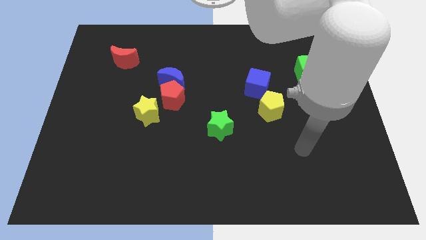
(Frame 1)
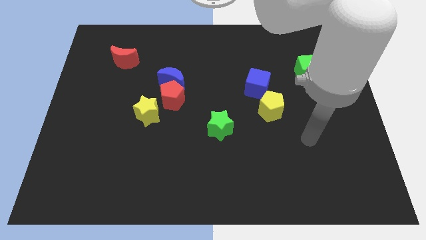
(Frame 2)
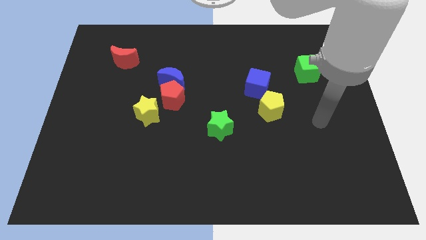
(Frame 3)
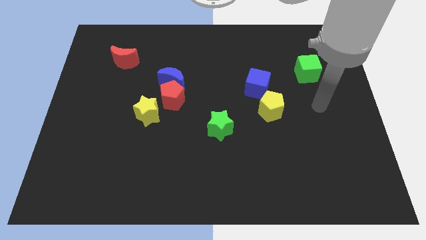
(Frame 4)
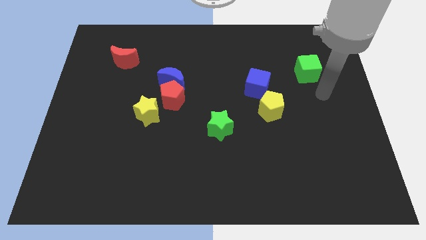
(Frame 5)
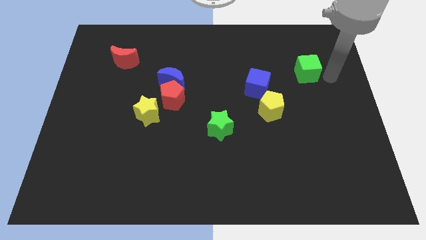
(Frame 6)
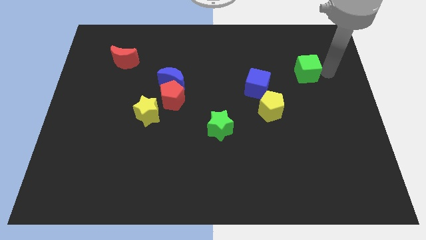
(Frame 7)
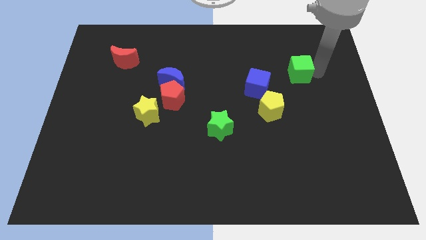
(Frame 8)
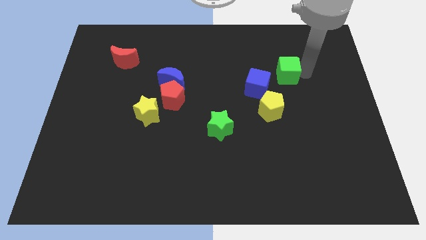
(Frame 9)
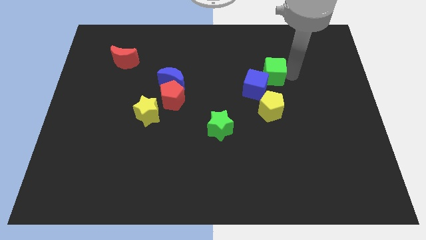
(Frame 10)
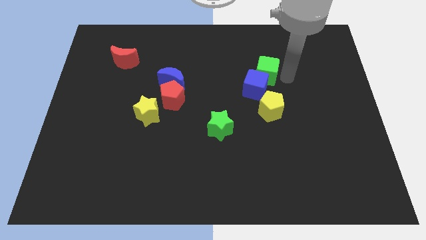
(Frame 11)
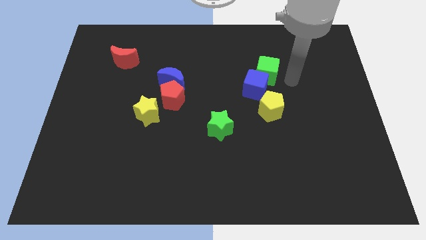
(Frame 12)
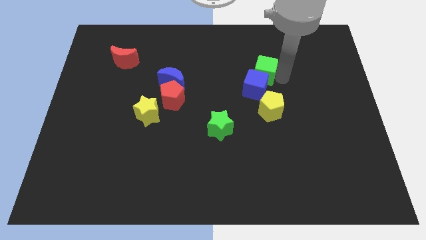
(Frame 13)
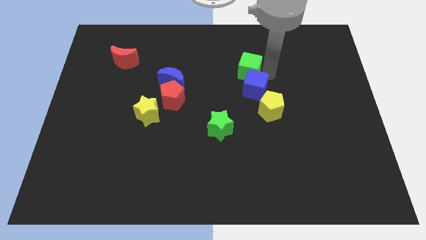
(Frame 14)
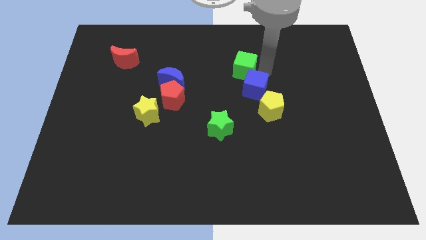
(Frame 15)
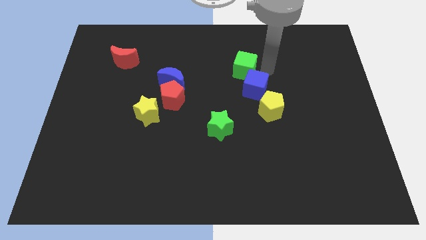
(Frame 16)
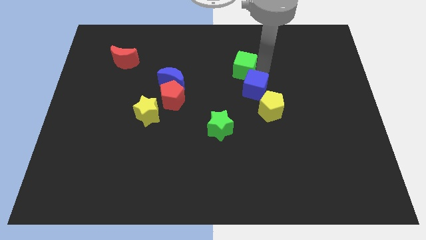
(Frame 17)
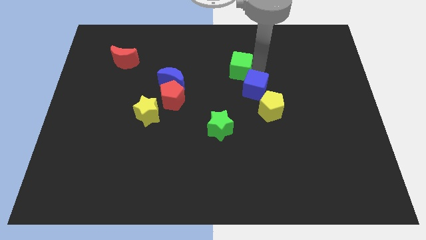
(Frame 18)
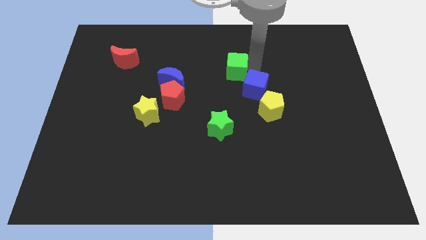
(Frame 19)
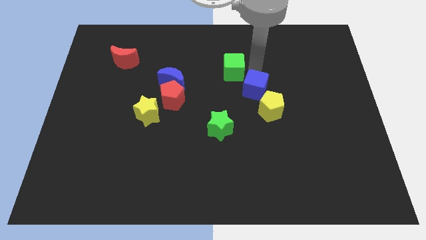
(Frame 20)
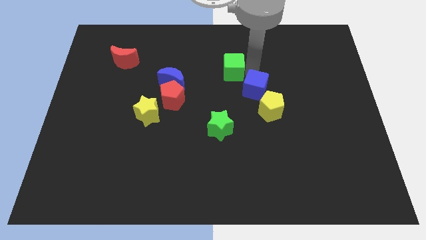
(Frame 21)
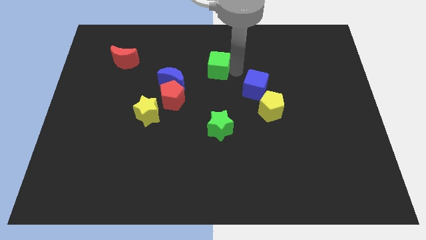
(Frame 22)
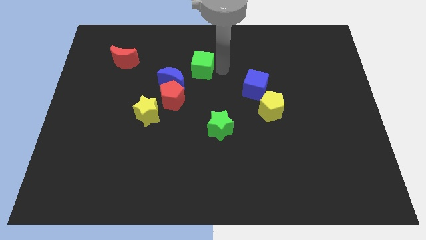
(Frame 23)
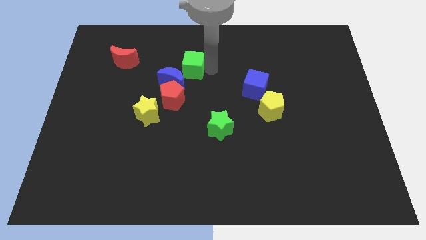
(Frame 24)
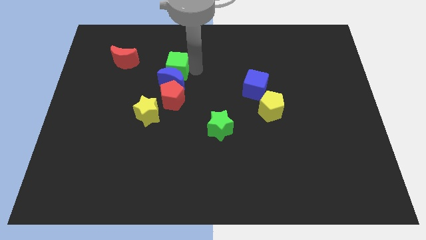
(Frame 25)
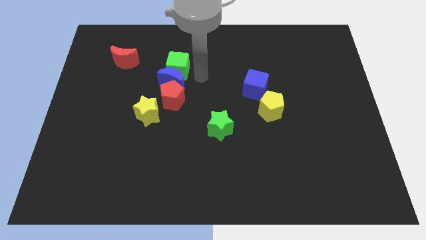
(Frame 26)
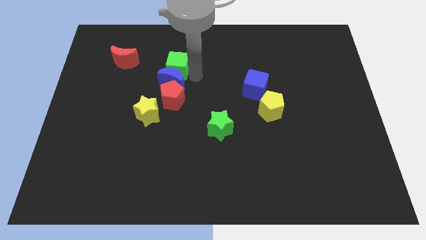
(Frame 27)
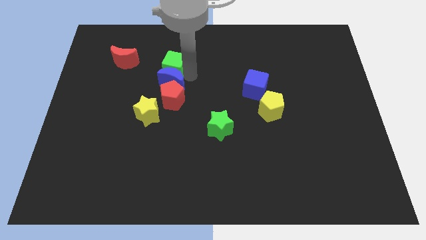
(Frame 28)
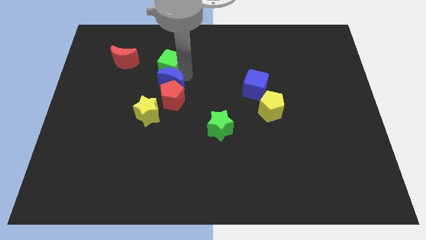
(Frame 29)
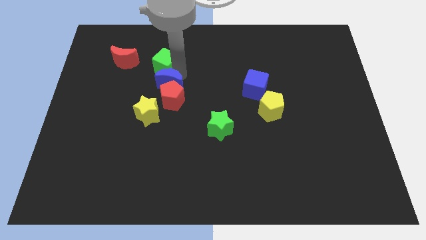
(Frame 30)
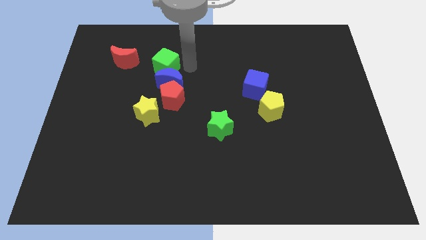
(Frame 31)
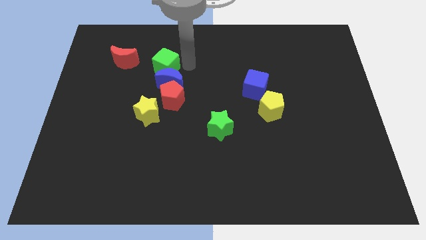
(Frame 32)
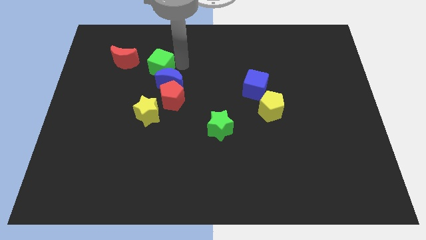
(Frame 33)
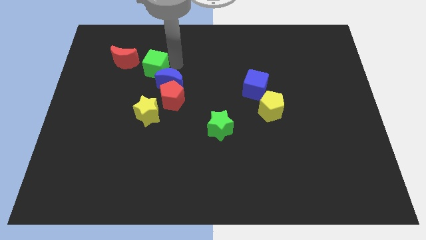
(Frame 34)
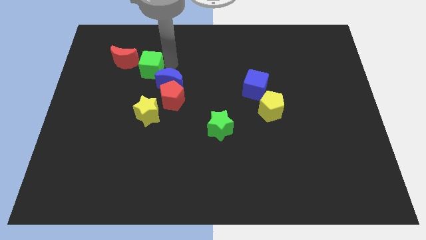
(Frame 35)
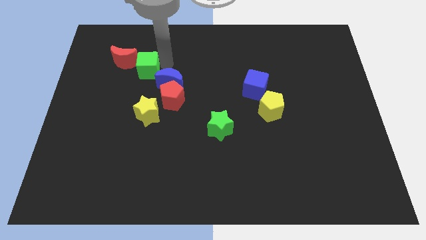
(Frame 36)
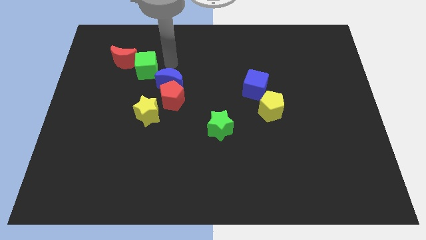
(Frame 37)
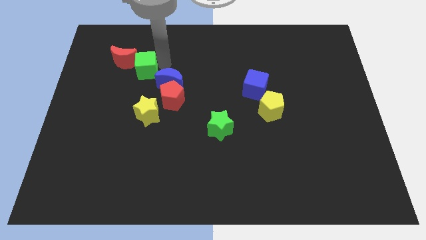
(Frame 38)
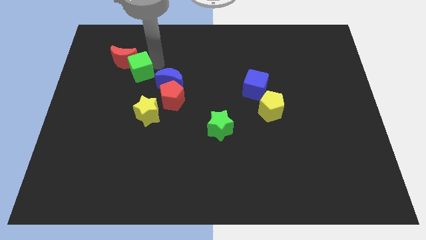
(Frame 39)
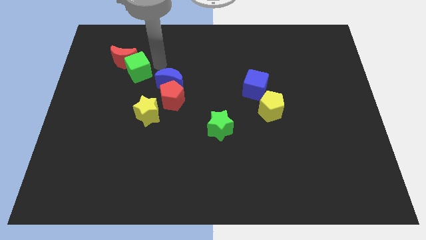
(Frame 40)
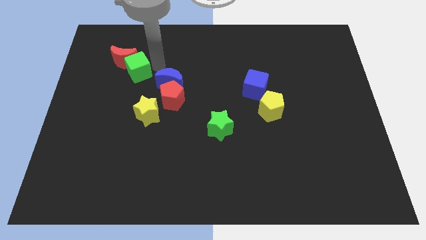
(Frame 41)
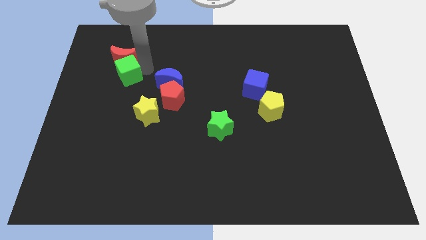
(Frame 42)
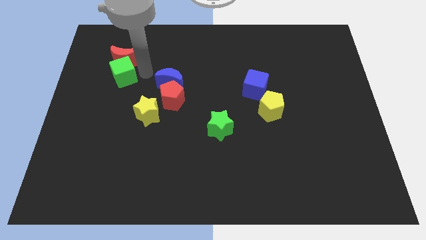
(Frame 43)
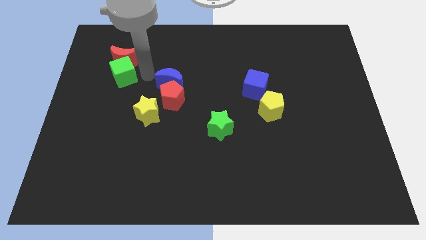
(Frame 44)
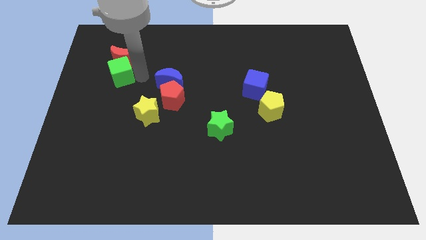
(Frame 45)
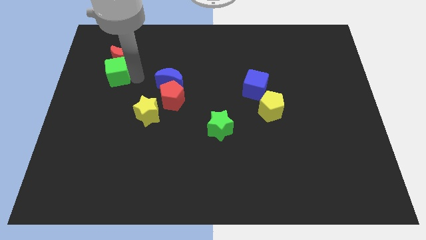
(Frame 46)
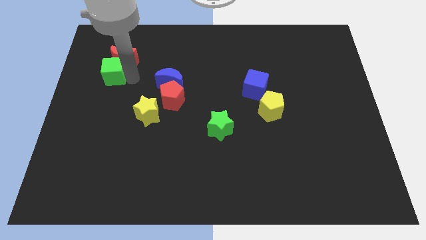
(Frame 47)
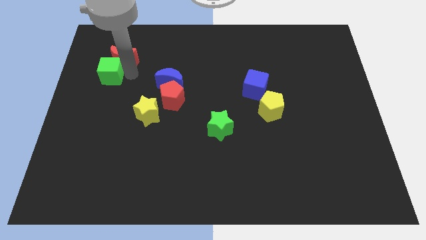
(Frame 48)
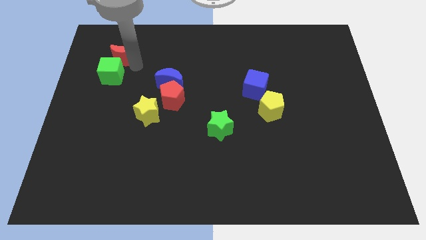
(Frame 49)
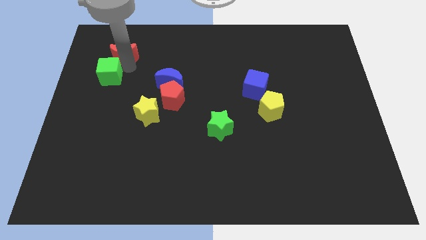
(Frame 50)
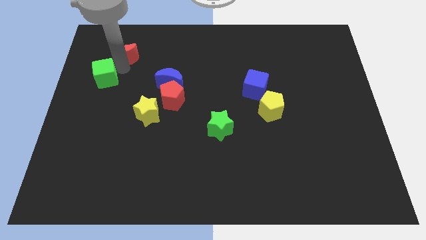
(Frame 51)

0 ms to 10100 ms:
push the green cube to the left side
